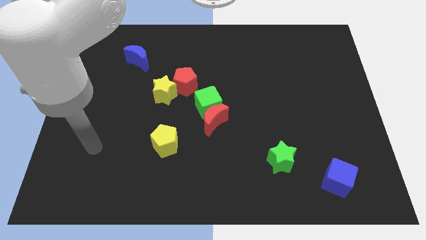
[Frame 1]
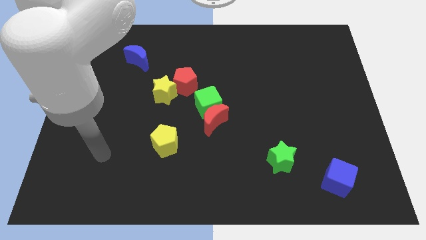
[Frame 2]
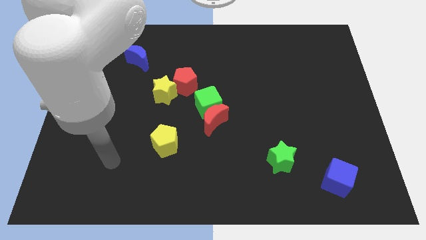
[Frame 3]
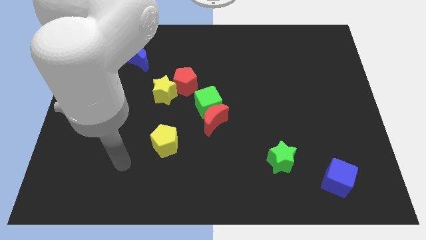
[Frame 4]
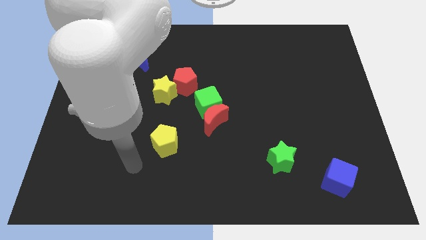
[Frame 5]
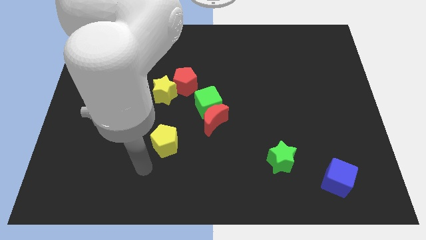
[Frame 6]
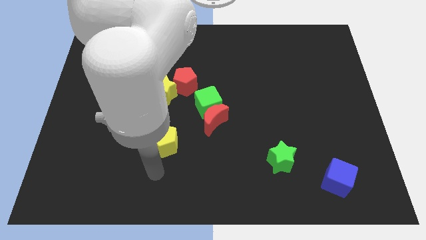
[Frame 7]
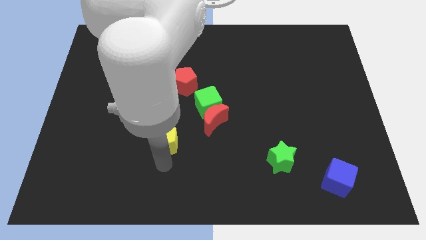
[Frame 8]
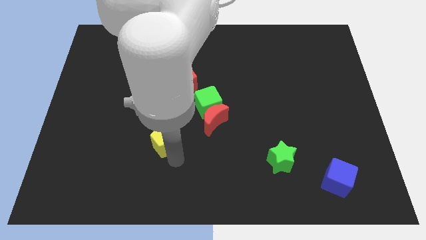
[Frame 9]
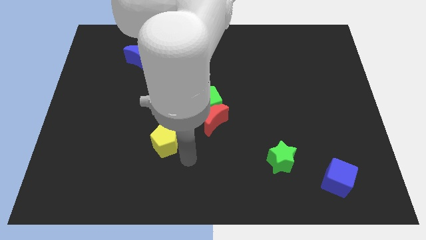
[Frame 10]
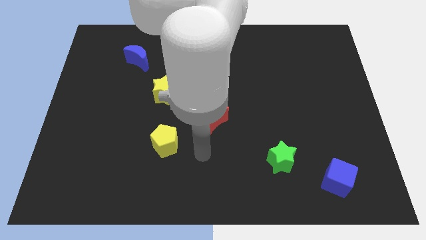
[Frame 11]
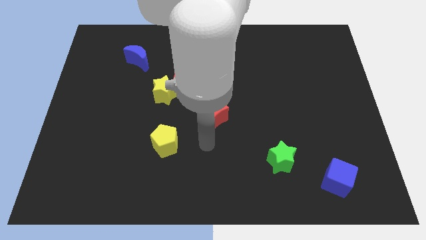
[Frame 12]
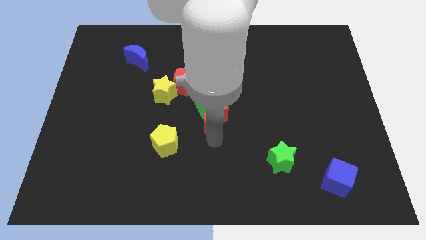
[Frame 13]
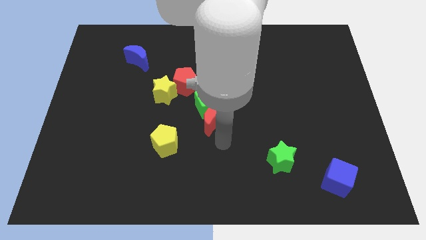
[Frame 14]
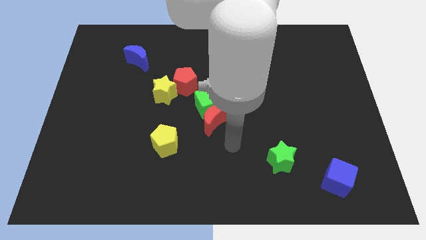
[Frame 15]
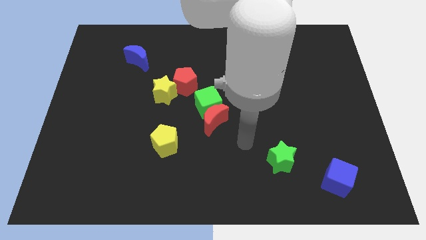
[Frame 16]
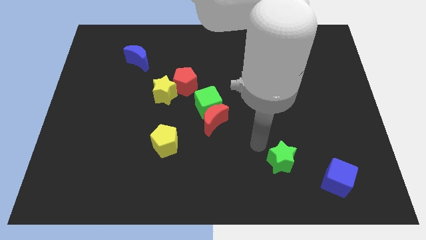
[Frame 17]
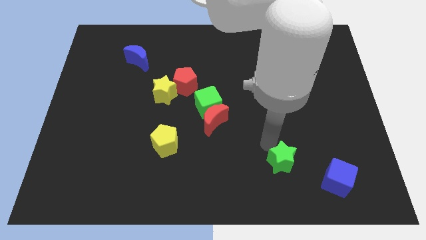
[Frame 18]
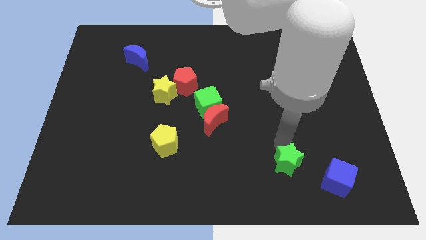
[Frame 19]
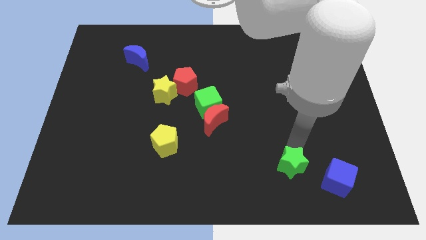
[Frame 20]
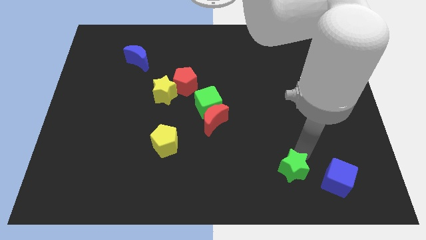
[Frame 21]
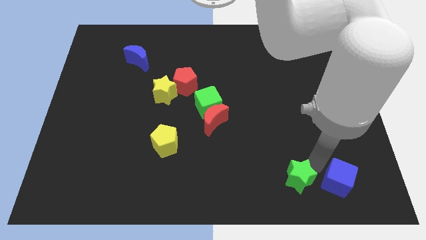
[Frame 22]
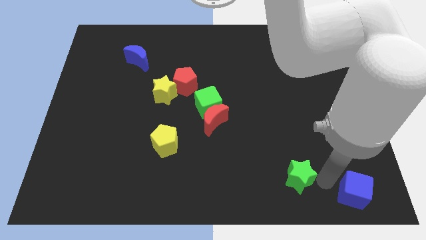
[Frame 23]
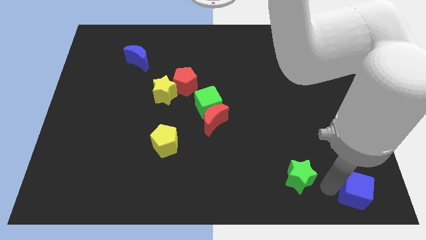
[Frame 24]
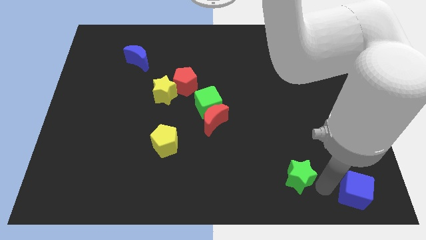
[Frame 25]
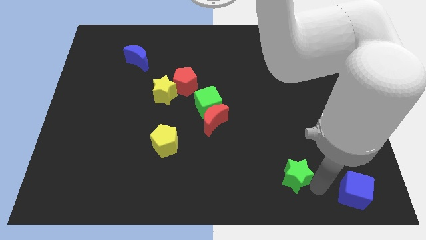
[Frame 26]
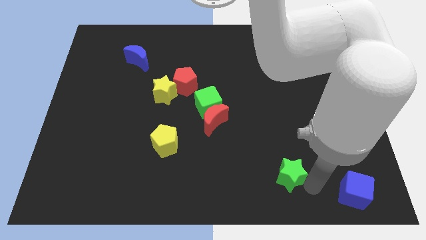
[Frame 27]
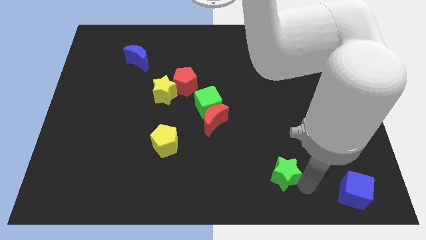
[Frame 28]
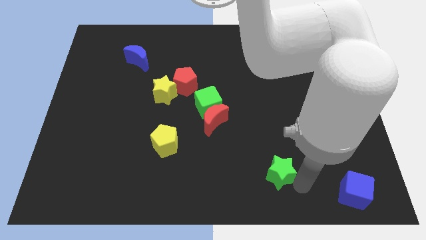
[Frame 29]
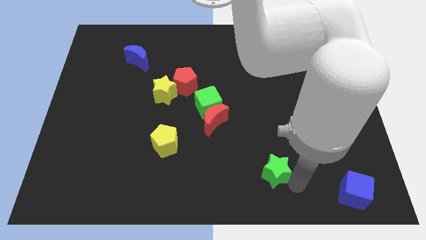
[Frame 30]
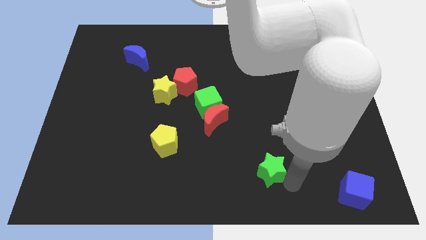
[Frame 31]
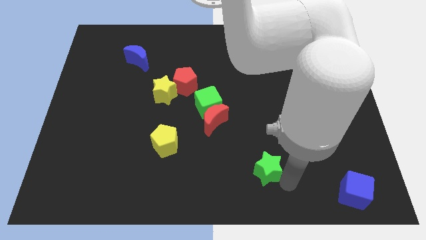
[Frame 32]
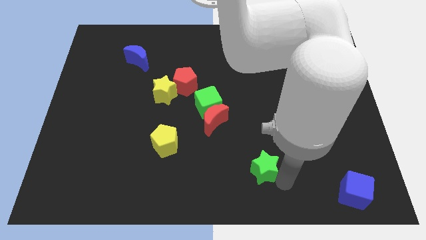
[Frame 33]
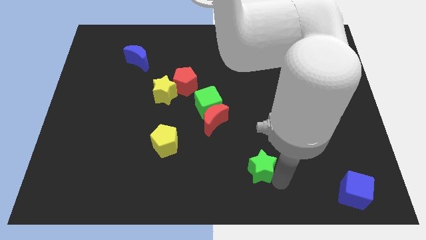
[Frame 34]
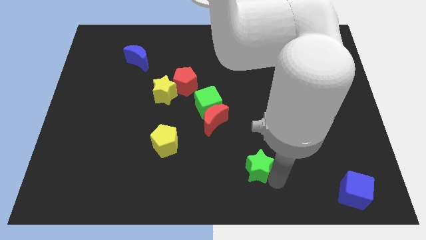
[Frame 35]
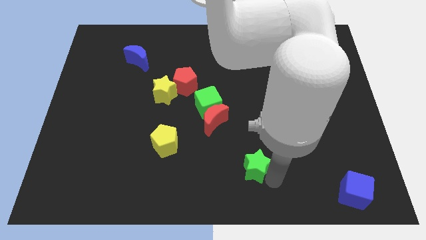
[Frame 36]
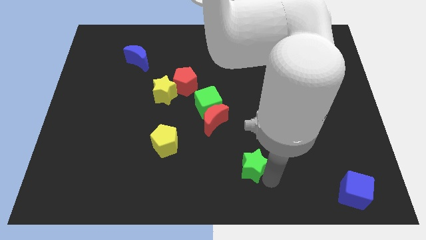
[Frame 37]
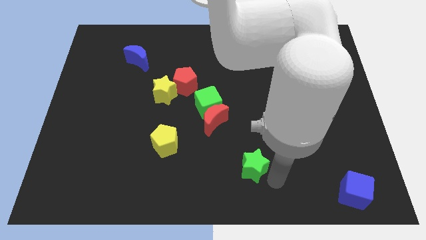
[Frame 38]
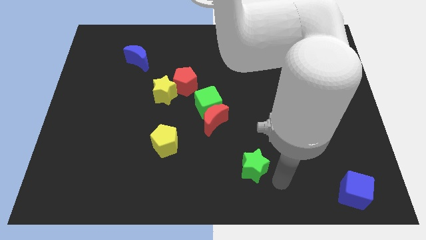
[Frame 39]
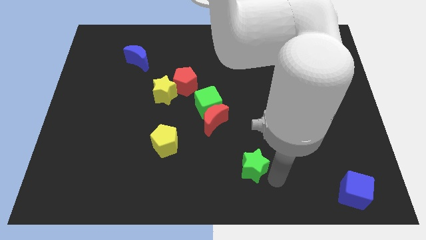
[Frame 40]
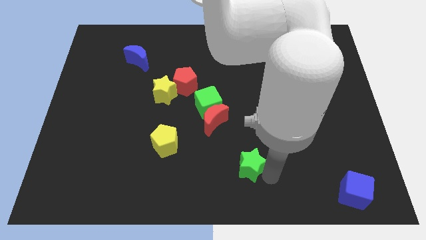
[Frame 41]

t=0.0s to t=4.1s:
slide the green star left somewhat

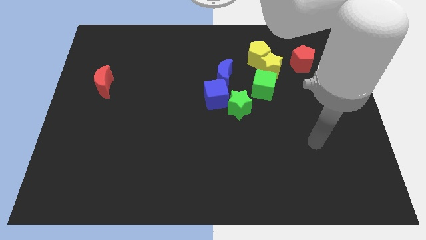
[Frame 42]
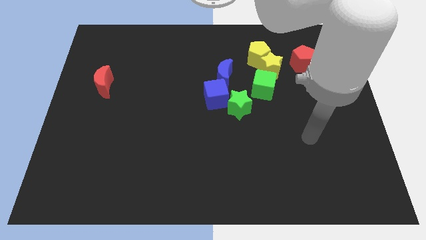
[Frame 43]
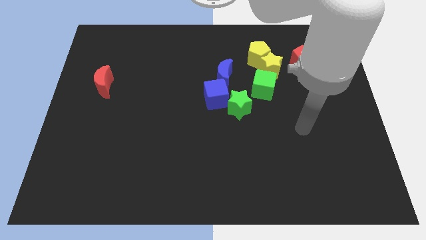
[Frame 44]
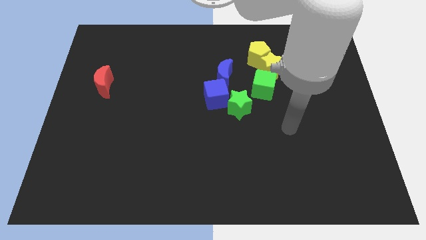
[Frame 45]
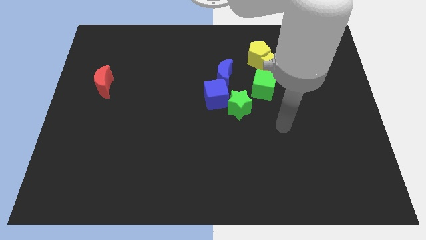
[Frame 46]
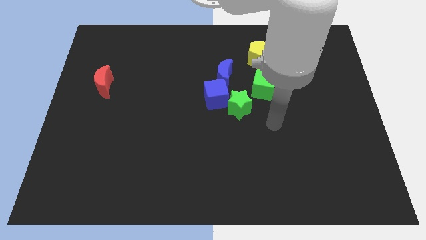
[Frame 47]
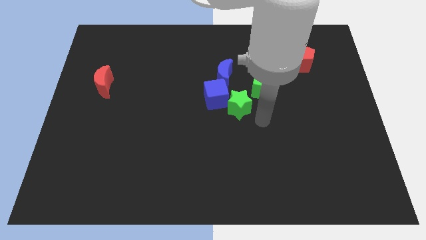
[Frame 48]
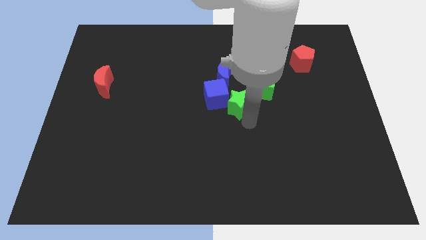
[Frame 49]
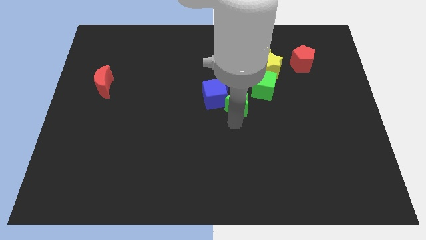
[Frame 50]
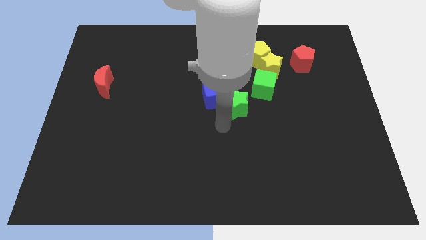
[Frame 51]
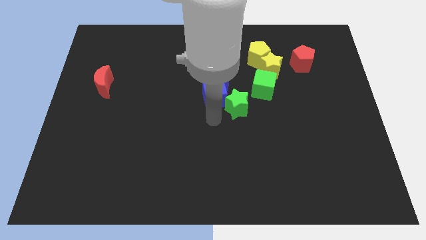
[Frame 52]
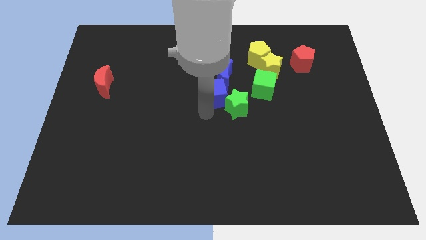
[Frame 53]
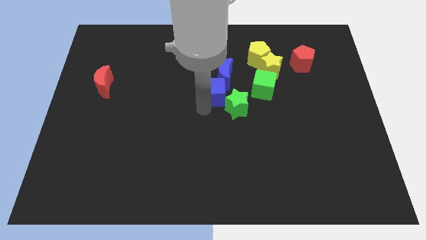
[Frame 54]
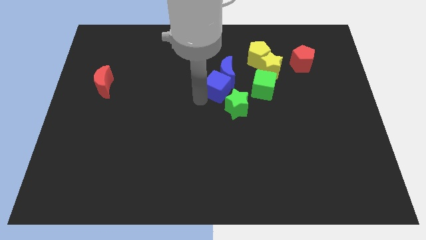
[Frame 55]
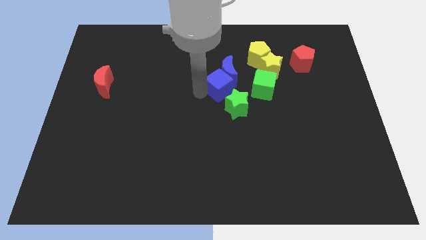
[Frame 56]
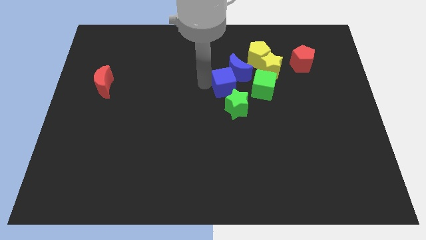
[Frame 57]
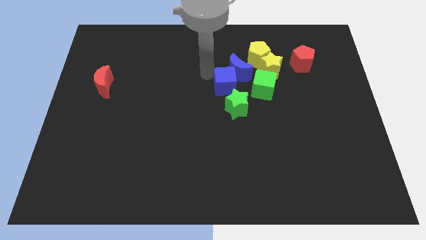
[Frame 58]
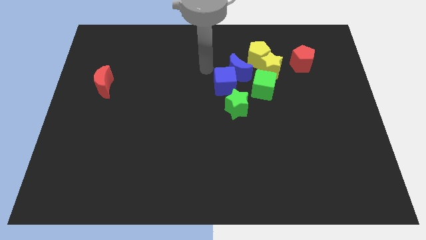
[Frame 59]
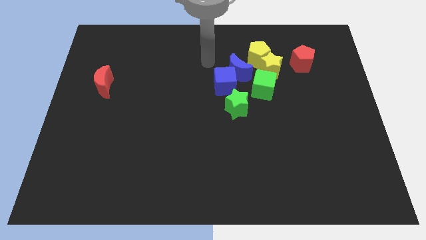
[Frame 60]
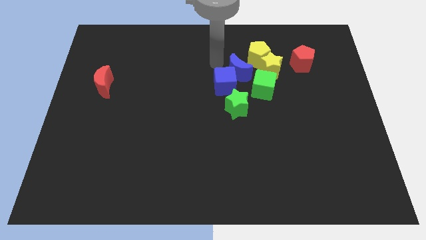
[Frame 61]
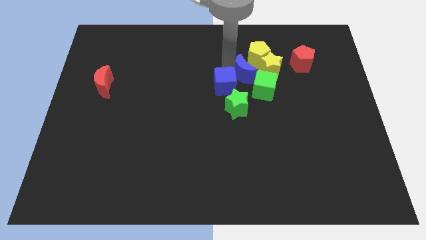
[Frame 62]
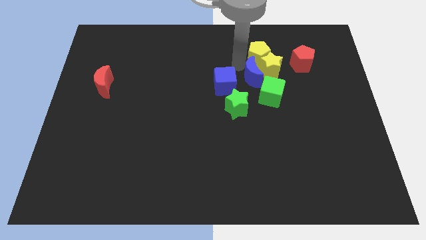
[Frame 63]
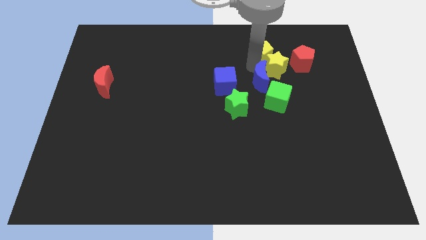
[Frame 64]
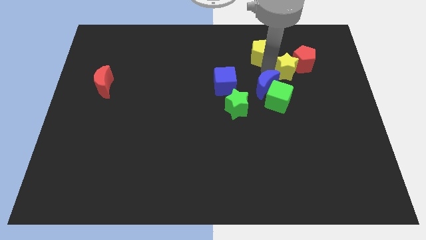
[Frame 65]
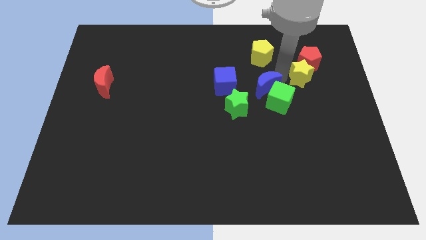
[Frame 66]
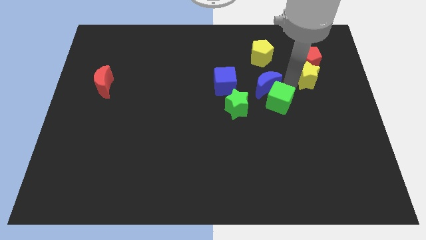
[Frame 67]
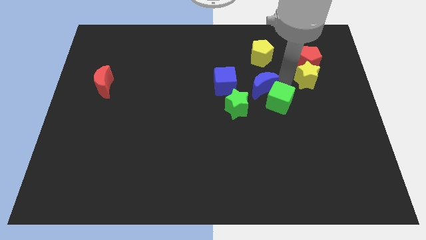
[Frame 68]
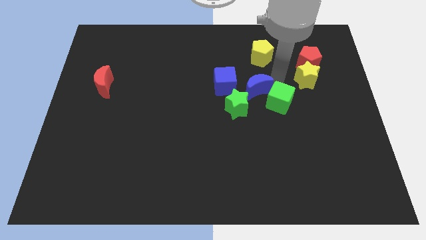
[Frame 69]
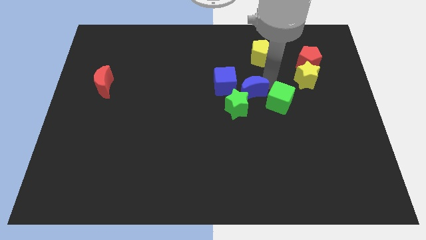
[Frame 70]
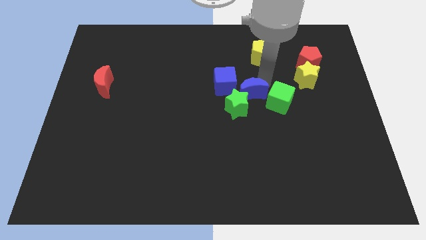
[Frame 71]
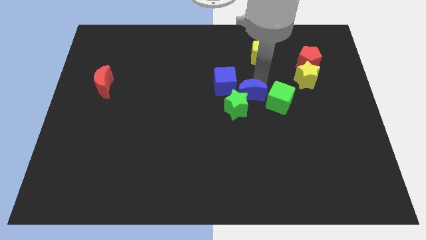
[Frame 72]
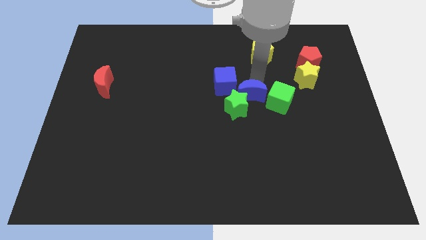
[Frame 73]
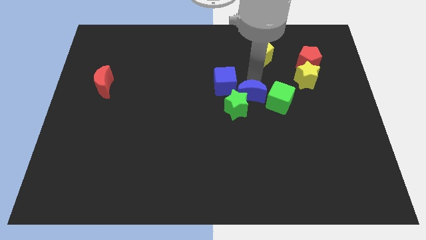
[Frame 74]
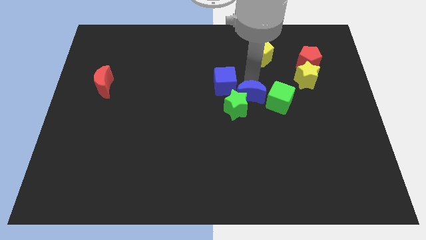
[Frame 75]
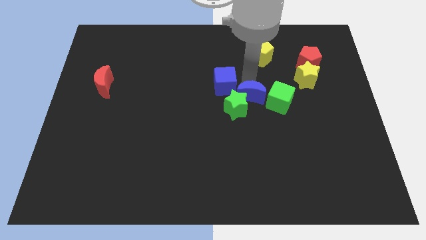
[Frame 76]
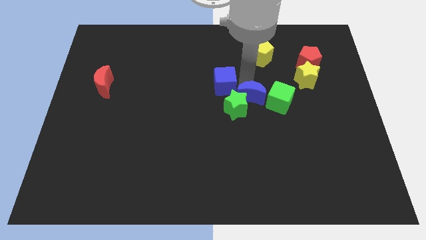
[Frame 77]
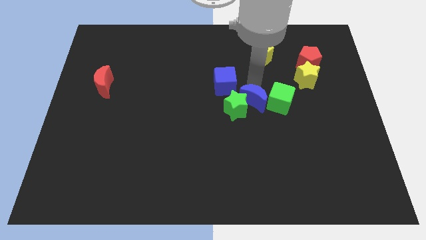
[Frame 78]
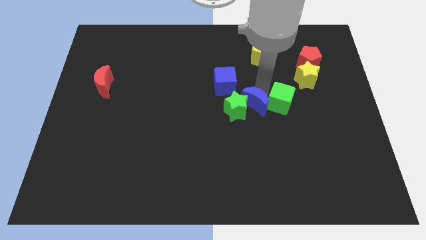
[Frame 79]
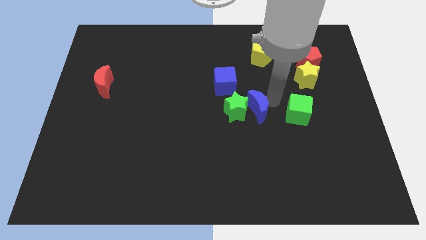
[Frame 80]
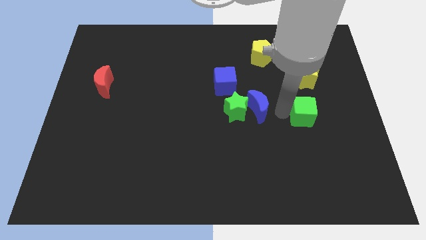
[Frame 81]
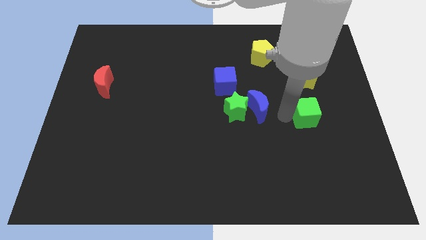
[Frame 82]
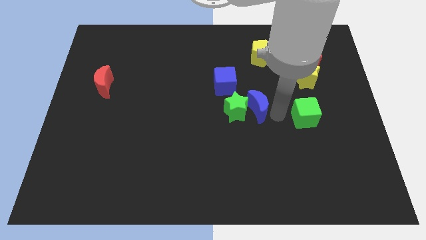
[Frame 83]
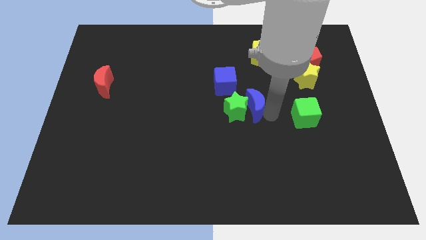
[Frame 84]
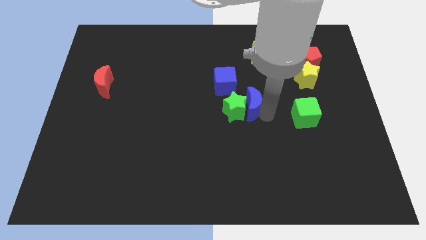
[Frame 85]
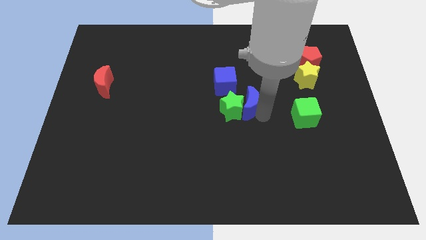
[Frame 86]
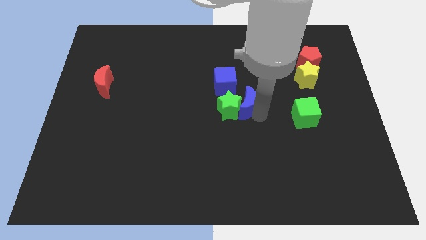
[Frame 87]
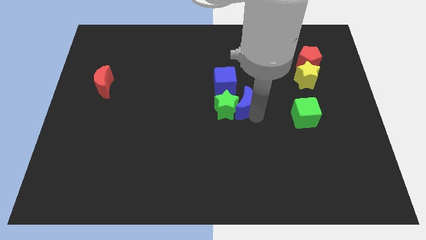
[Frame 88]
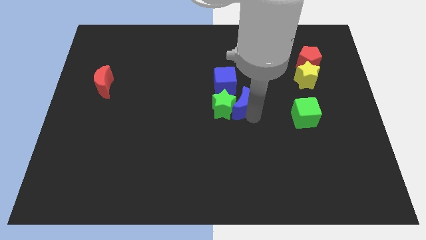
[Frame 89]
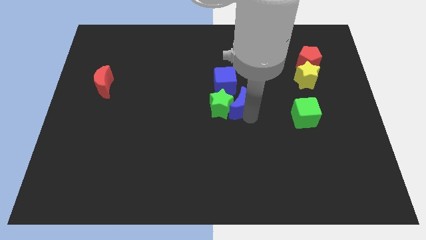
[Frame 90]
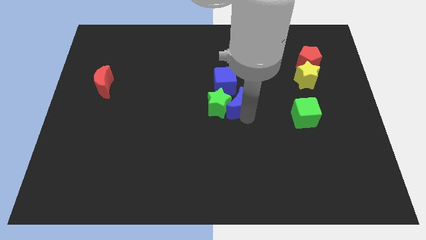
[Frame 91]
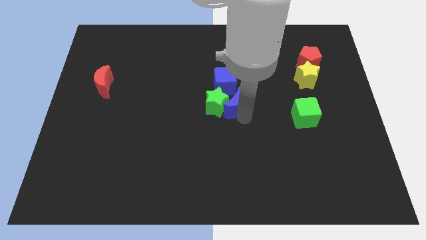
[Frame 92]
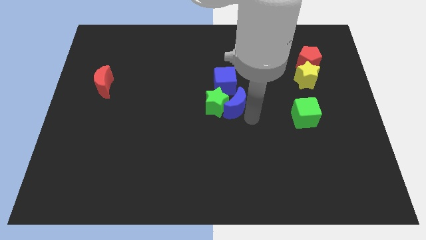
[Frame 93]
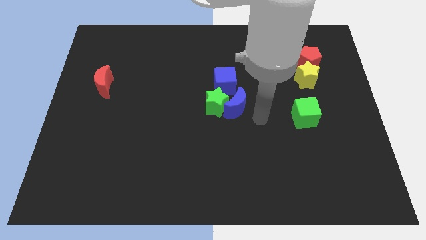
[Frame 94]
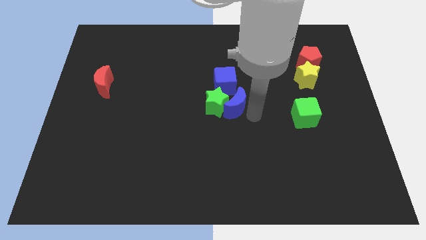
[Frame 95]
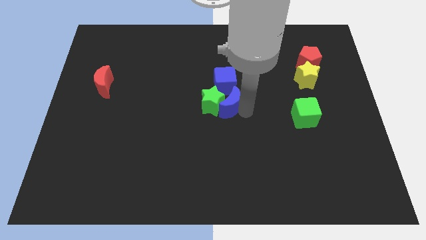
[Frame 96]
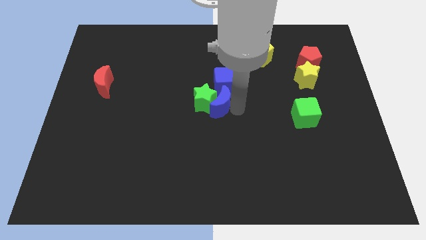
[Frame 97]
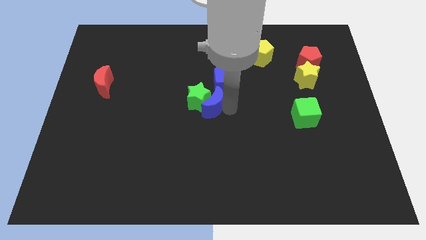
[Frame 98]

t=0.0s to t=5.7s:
push the blue moon slightly down and left
